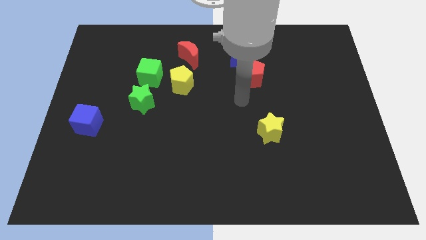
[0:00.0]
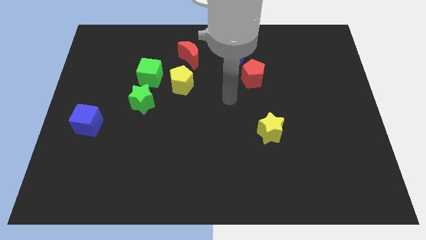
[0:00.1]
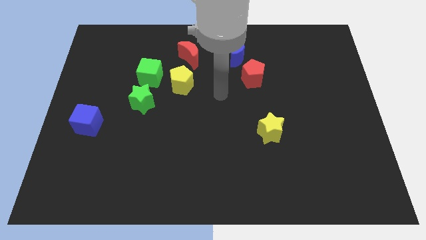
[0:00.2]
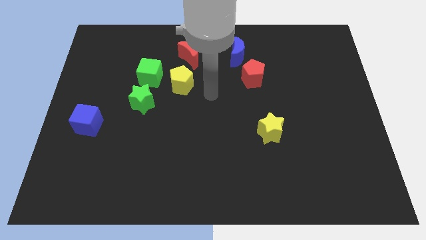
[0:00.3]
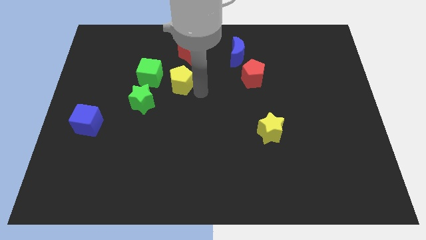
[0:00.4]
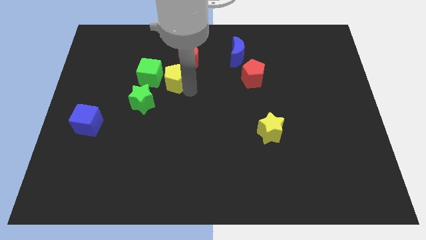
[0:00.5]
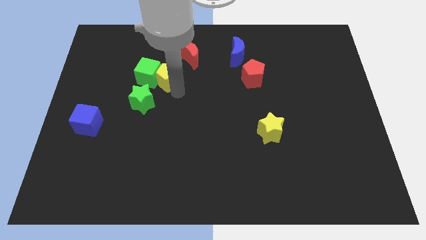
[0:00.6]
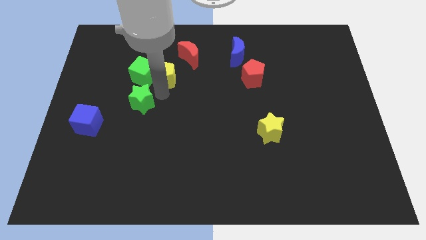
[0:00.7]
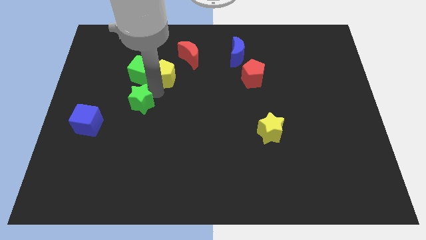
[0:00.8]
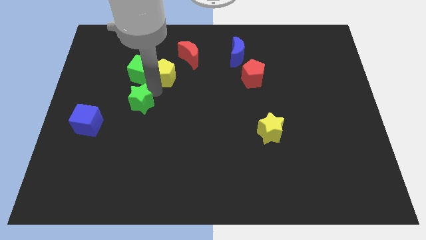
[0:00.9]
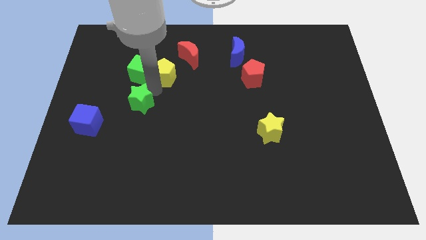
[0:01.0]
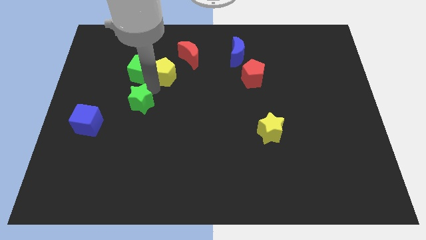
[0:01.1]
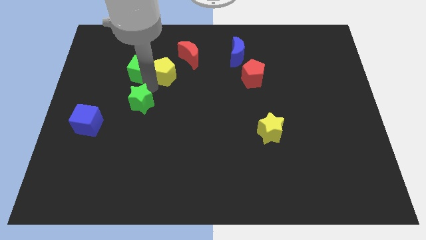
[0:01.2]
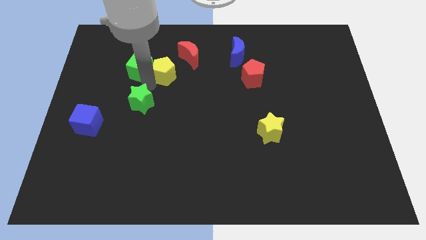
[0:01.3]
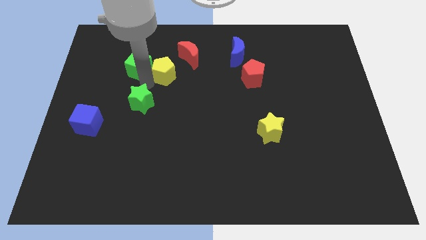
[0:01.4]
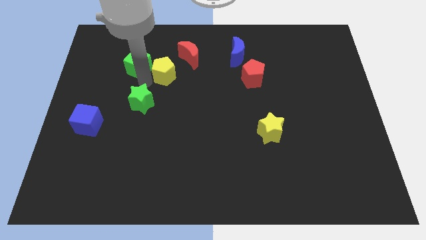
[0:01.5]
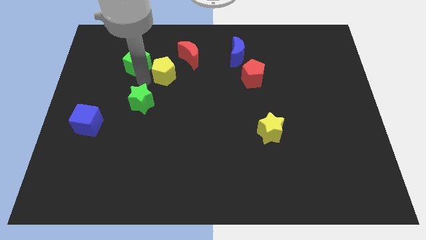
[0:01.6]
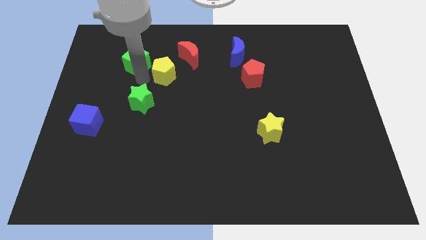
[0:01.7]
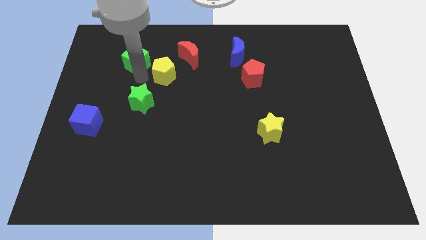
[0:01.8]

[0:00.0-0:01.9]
separate the green cube from the yellow pentagon and green star

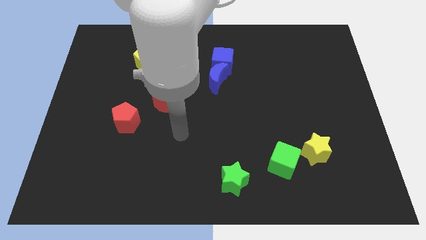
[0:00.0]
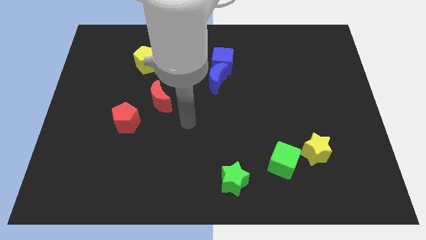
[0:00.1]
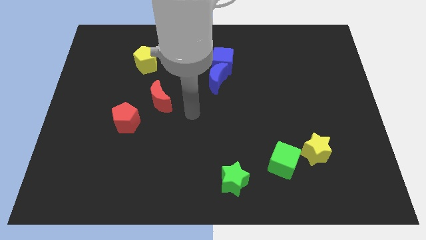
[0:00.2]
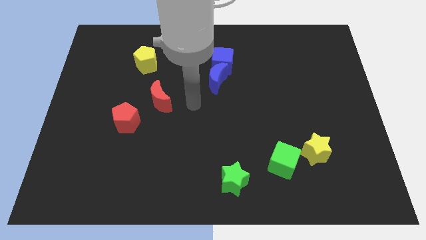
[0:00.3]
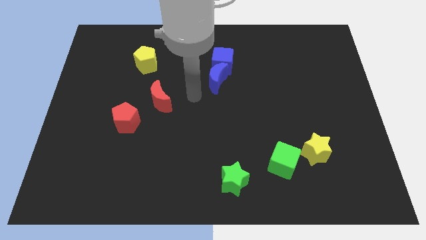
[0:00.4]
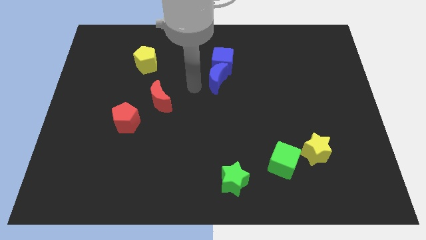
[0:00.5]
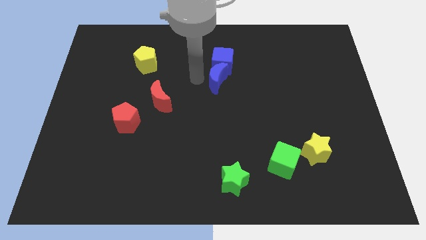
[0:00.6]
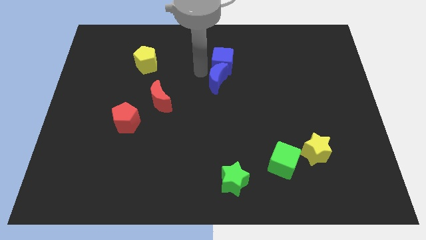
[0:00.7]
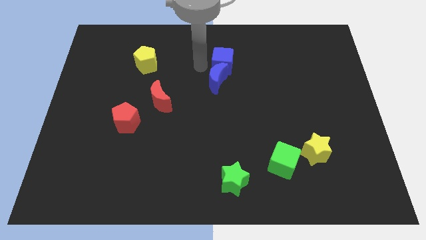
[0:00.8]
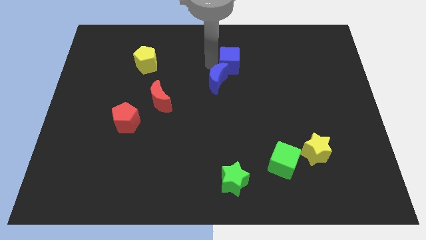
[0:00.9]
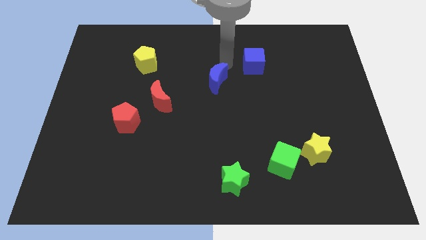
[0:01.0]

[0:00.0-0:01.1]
pull the blue moon apart from the blue cube

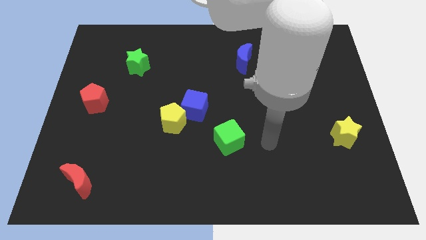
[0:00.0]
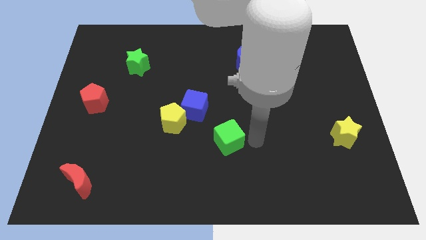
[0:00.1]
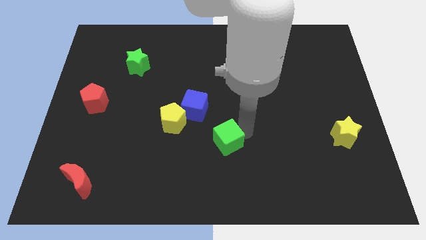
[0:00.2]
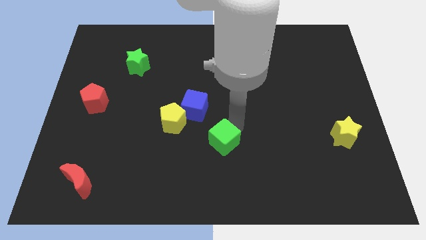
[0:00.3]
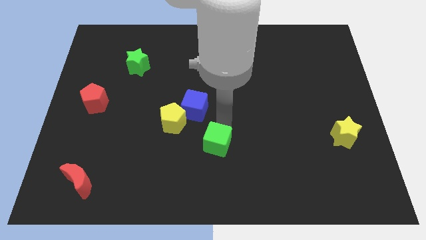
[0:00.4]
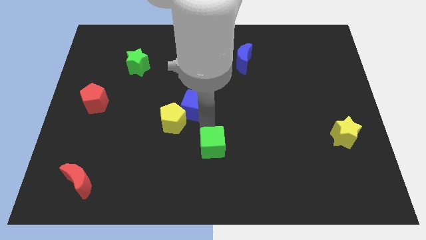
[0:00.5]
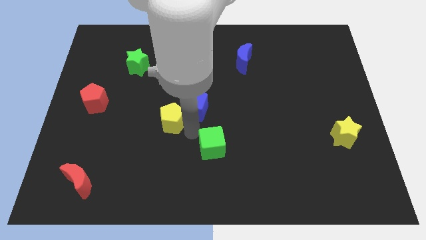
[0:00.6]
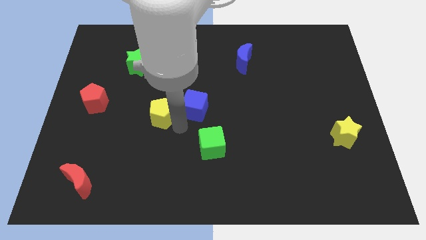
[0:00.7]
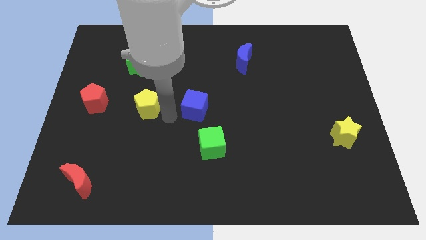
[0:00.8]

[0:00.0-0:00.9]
pull the blue cube apart from the yellow pentagon

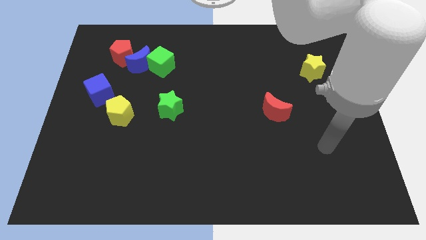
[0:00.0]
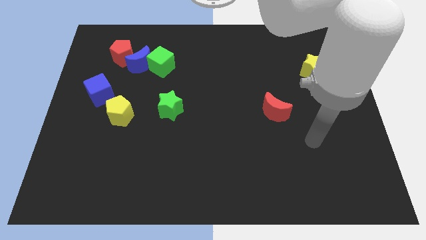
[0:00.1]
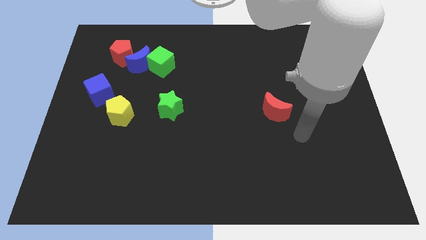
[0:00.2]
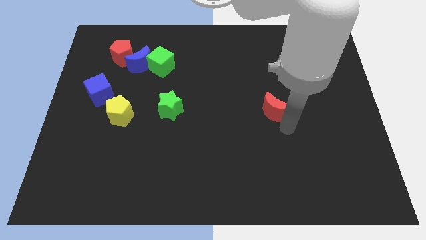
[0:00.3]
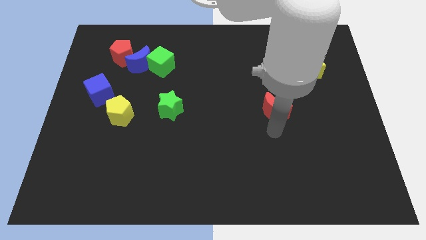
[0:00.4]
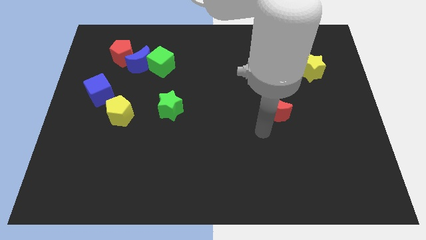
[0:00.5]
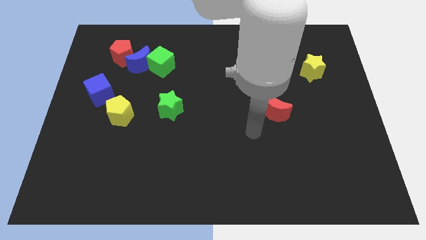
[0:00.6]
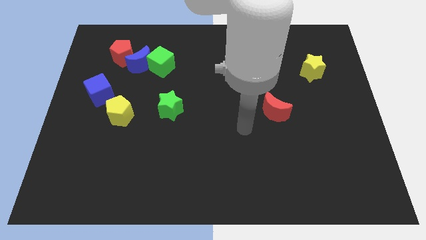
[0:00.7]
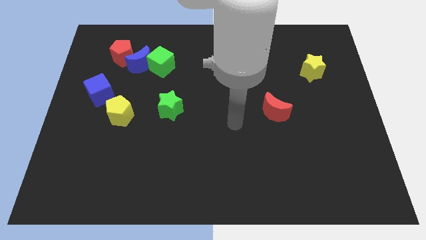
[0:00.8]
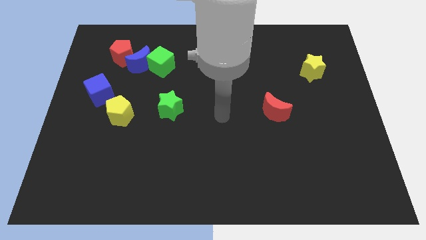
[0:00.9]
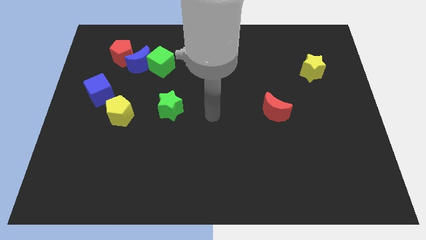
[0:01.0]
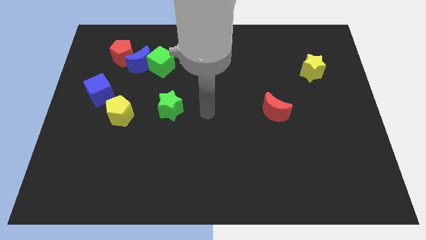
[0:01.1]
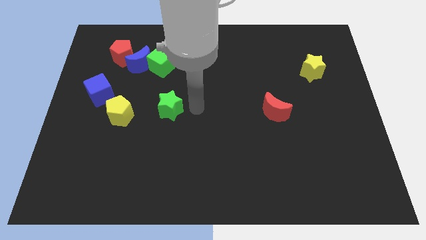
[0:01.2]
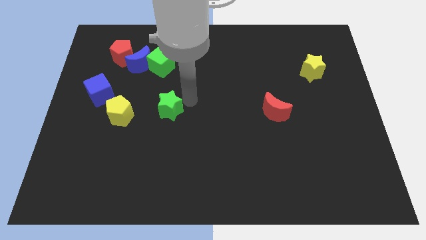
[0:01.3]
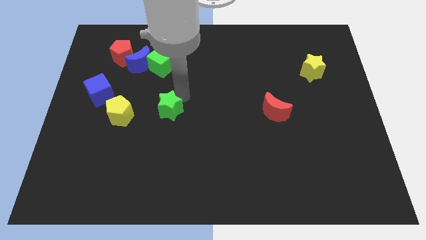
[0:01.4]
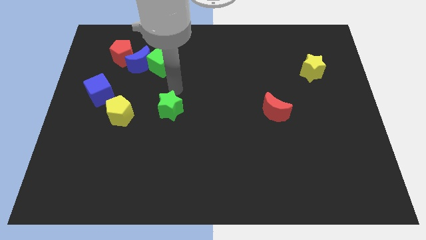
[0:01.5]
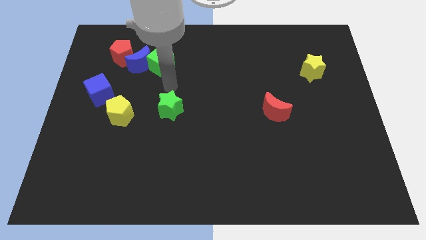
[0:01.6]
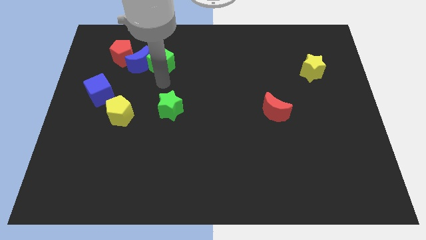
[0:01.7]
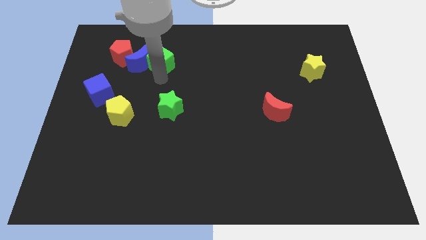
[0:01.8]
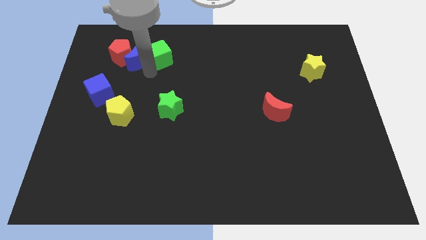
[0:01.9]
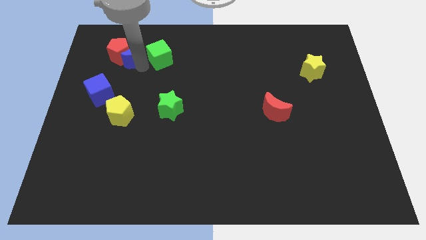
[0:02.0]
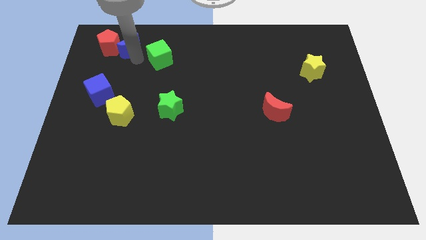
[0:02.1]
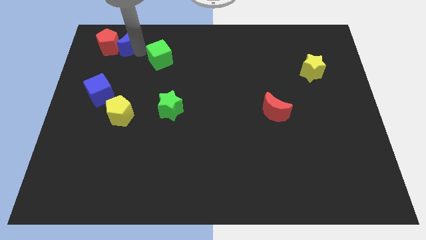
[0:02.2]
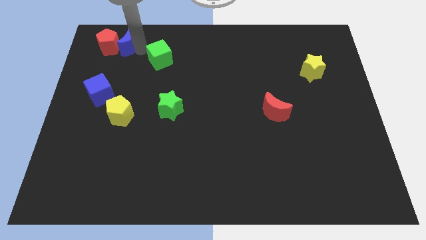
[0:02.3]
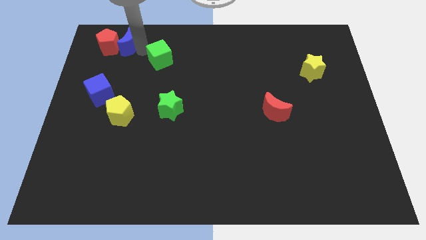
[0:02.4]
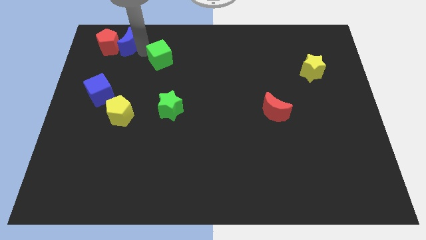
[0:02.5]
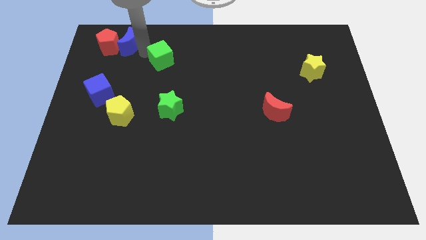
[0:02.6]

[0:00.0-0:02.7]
separate the green cube from the blue moon

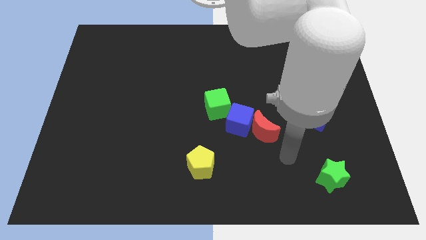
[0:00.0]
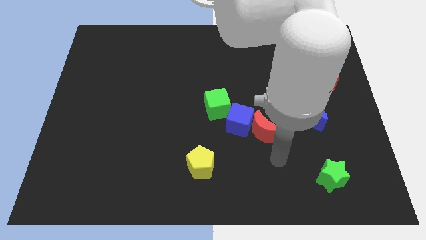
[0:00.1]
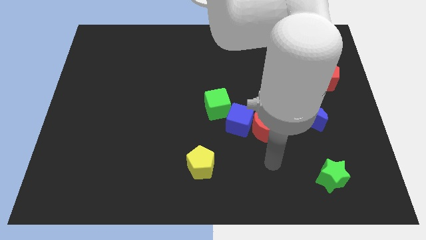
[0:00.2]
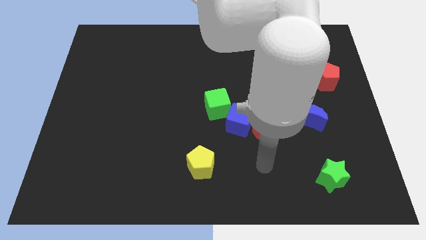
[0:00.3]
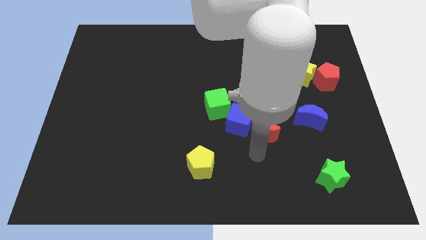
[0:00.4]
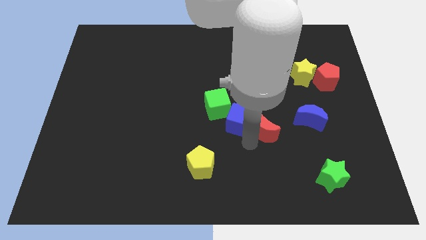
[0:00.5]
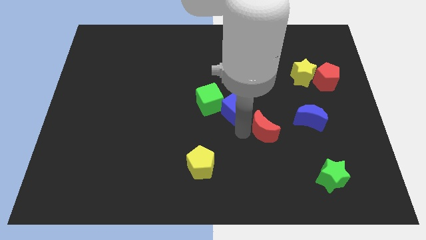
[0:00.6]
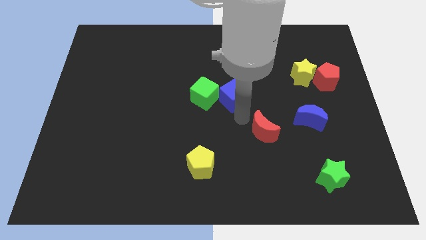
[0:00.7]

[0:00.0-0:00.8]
pull the red moon apart from the blue cube

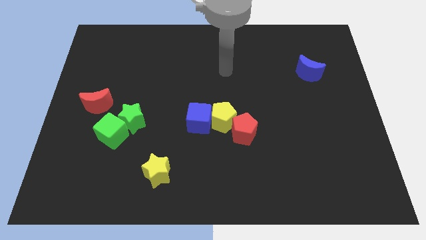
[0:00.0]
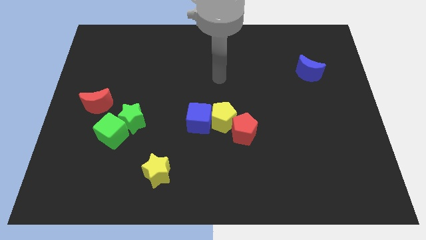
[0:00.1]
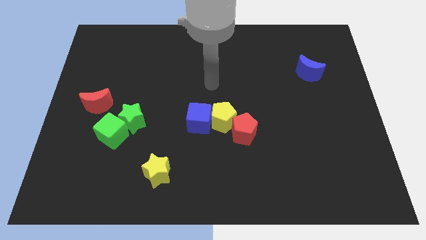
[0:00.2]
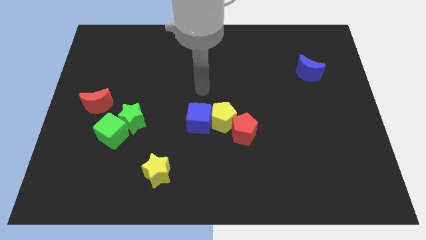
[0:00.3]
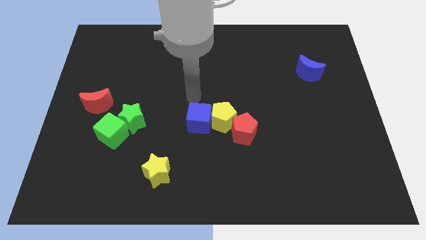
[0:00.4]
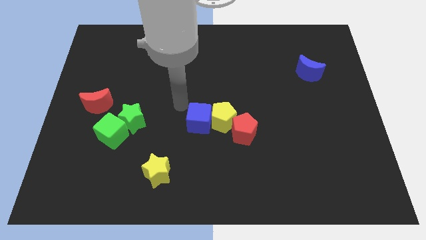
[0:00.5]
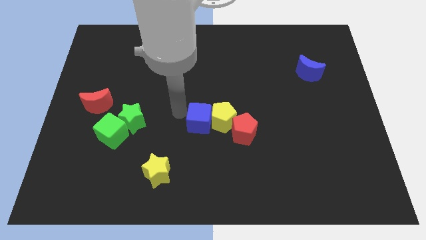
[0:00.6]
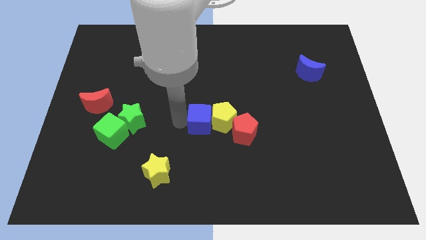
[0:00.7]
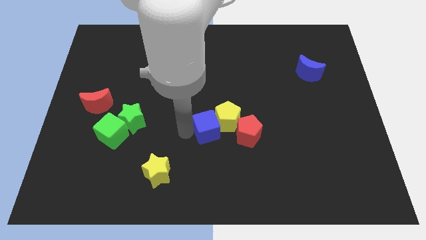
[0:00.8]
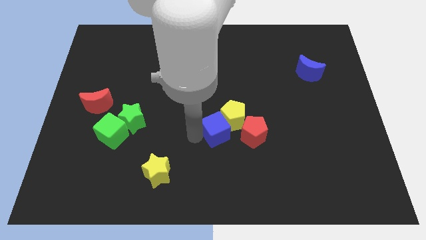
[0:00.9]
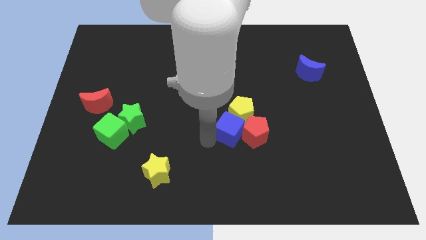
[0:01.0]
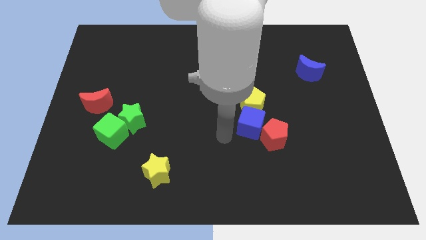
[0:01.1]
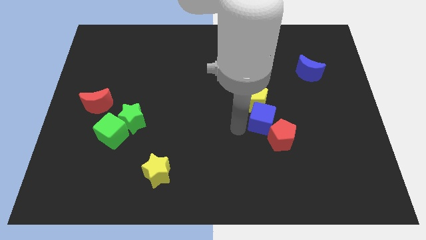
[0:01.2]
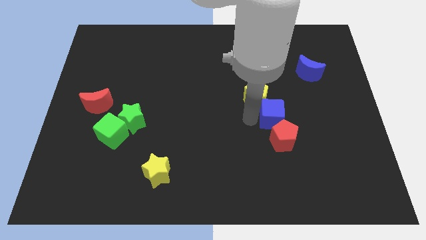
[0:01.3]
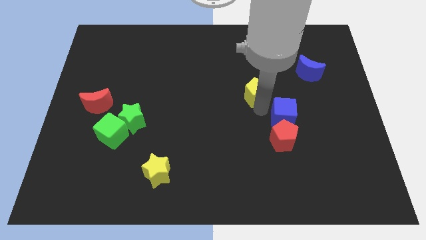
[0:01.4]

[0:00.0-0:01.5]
move the yellow pentagon away from the blue cube and red pentagon

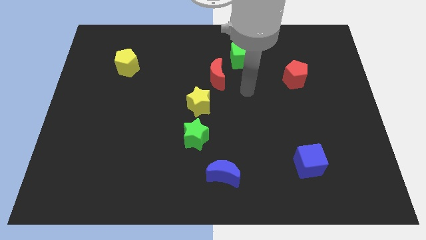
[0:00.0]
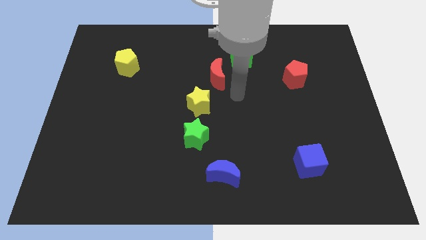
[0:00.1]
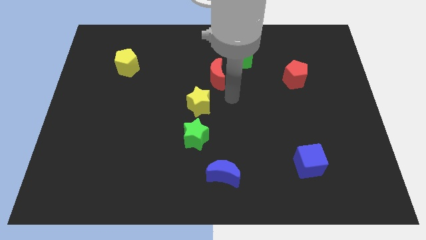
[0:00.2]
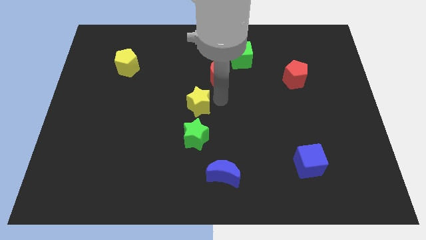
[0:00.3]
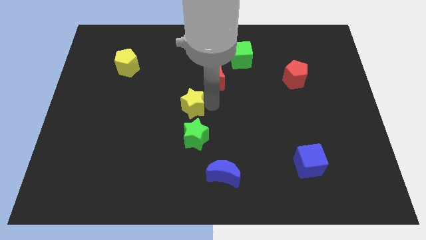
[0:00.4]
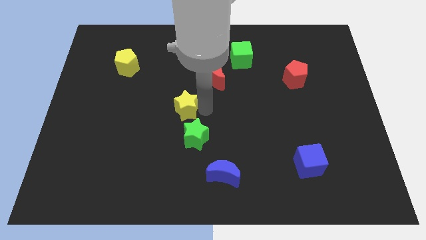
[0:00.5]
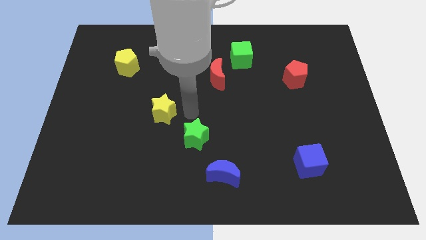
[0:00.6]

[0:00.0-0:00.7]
pull the green star apart from the yellow star
